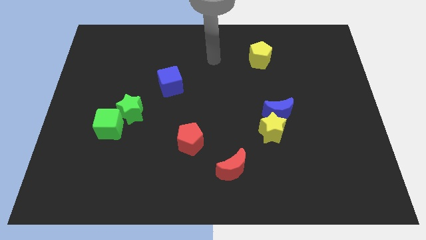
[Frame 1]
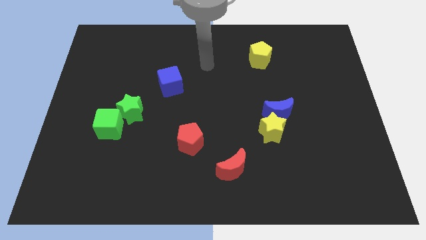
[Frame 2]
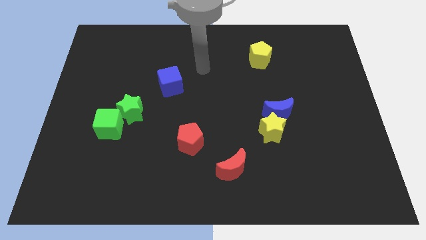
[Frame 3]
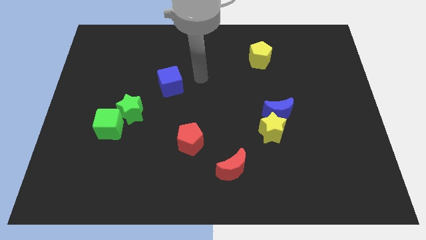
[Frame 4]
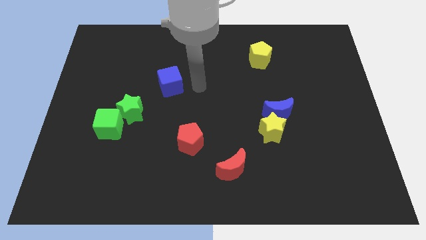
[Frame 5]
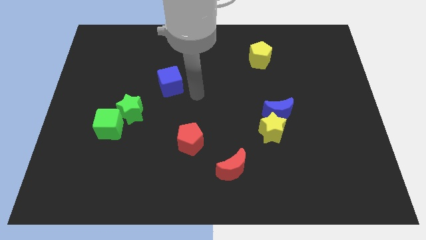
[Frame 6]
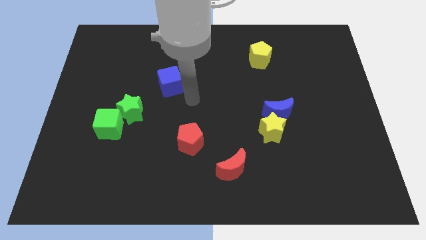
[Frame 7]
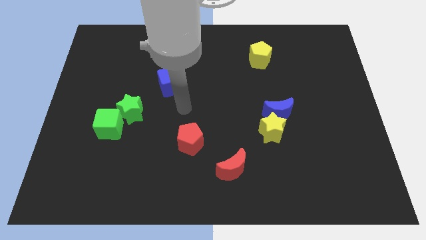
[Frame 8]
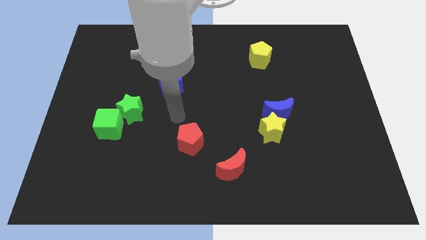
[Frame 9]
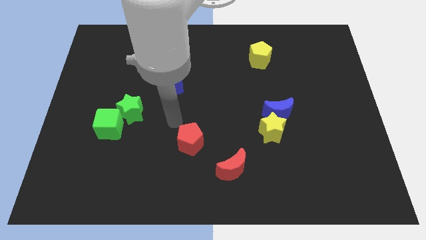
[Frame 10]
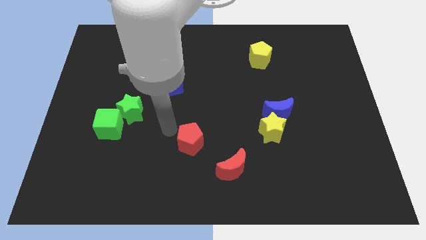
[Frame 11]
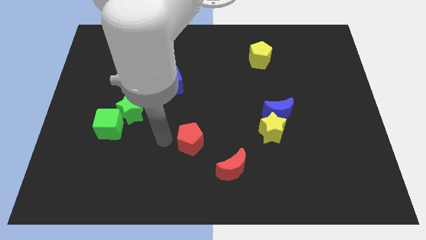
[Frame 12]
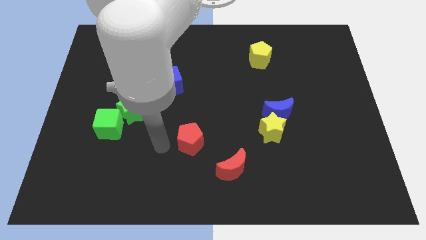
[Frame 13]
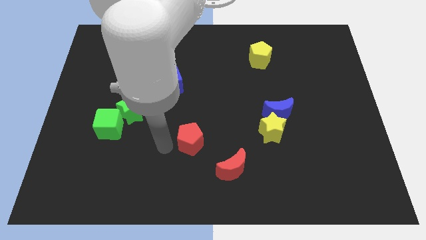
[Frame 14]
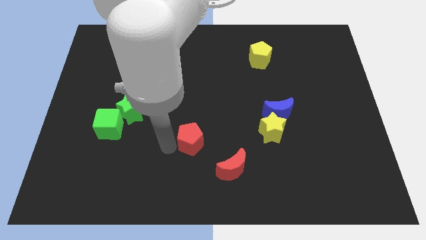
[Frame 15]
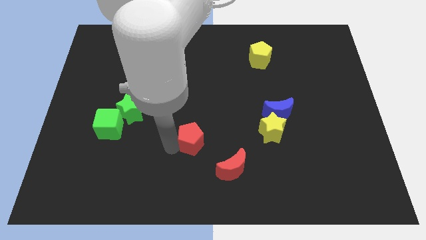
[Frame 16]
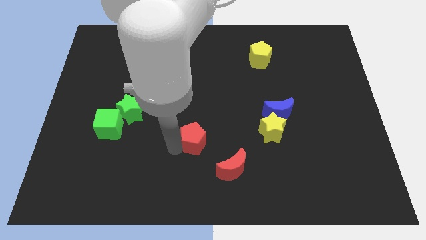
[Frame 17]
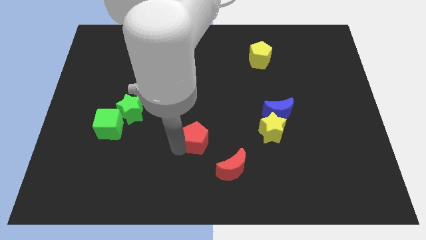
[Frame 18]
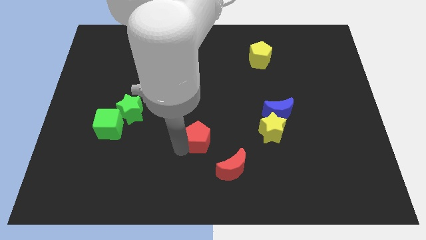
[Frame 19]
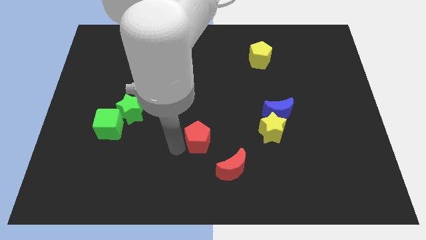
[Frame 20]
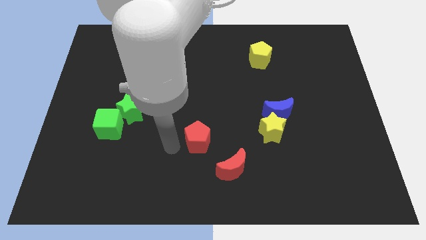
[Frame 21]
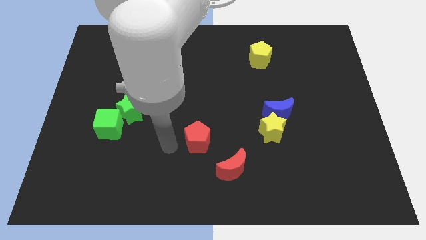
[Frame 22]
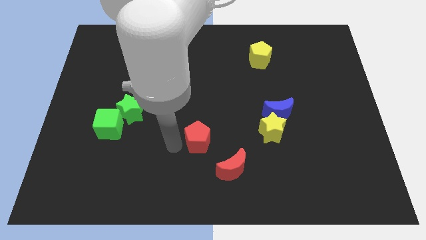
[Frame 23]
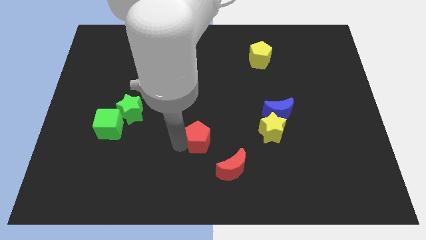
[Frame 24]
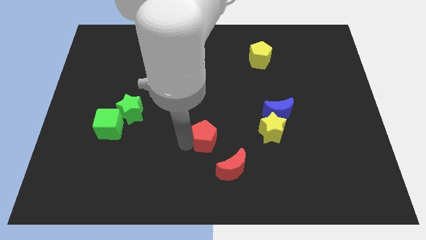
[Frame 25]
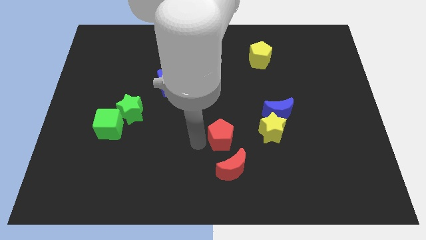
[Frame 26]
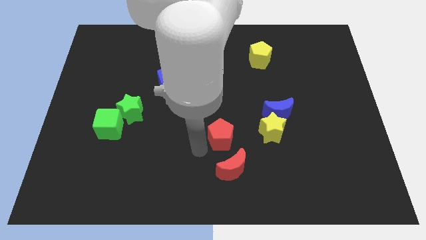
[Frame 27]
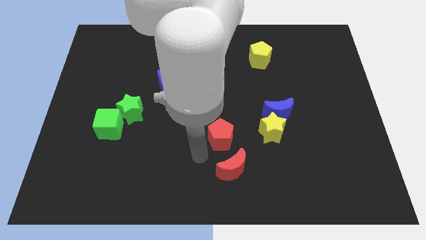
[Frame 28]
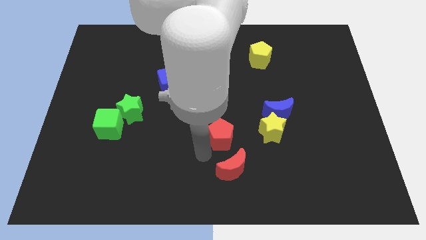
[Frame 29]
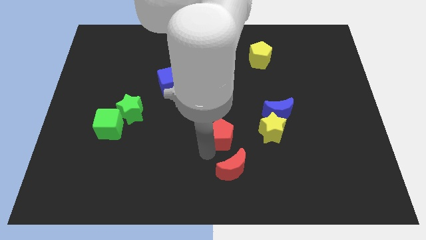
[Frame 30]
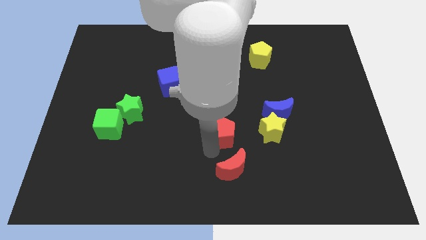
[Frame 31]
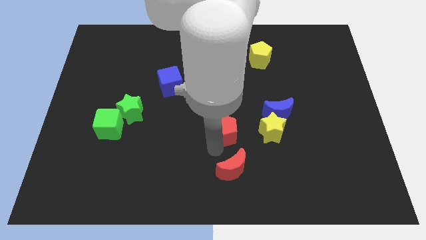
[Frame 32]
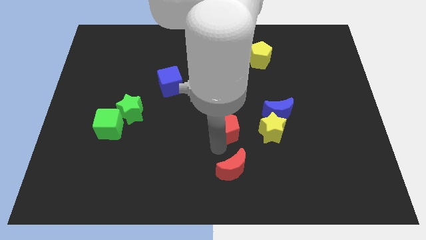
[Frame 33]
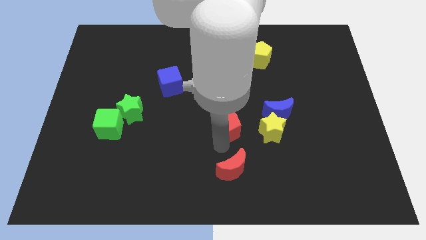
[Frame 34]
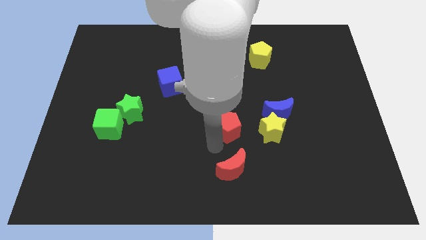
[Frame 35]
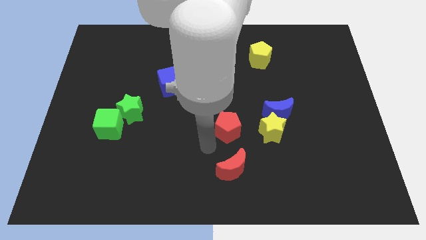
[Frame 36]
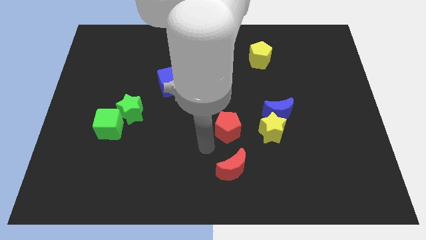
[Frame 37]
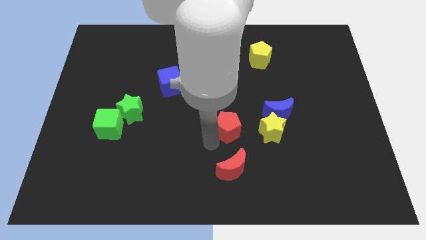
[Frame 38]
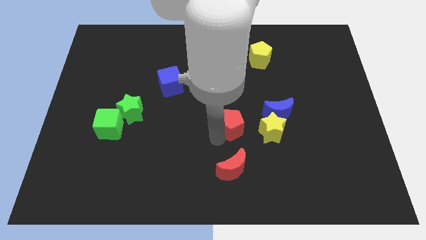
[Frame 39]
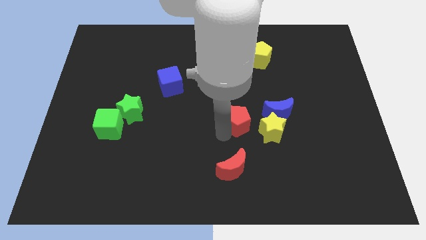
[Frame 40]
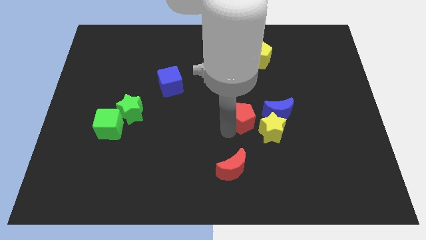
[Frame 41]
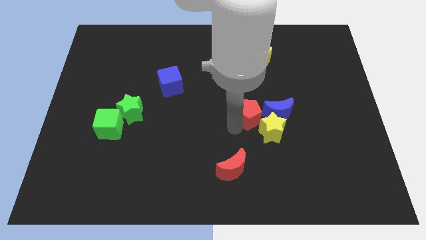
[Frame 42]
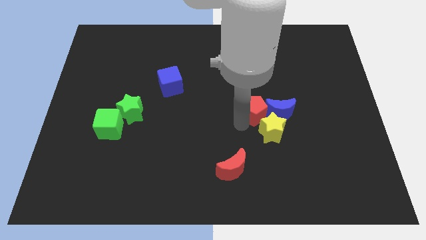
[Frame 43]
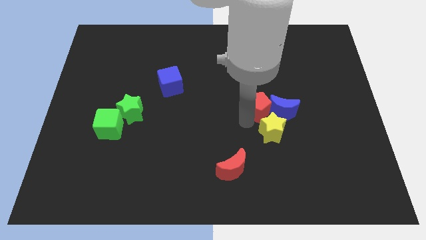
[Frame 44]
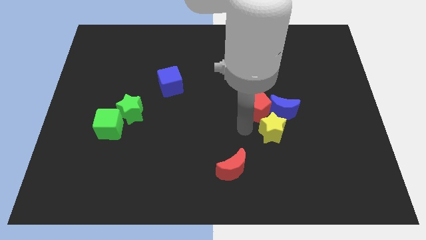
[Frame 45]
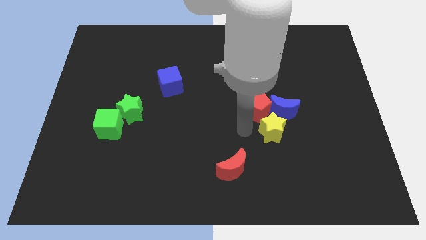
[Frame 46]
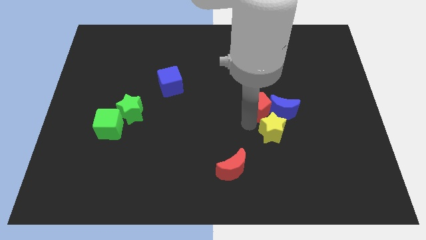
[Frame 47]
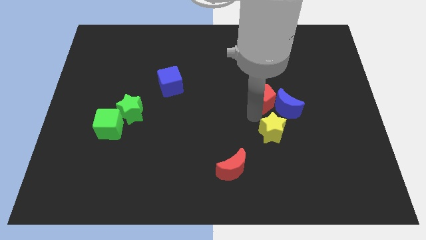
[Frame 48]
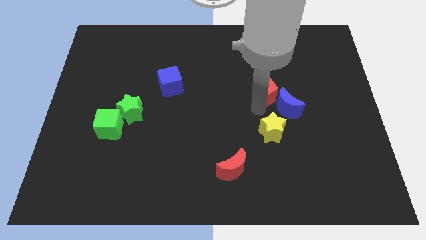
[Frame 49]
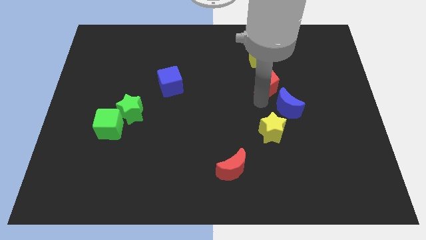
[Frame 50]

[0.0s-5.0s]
push the red pentagon above the blue moon

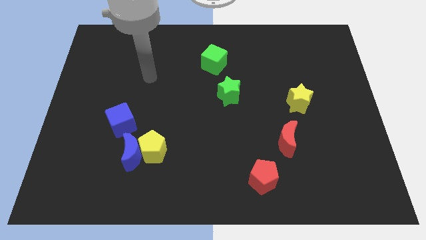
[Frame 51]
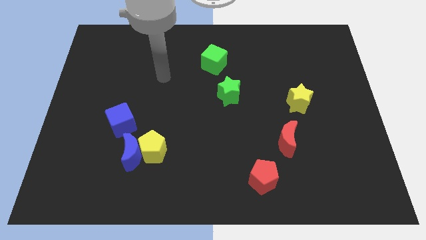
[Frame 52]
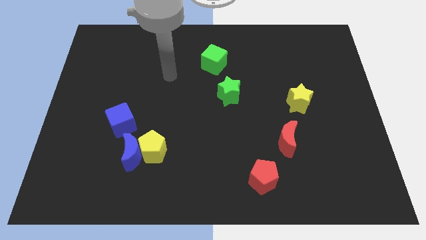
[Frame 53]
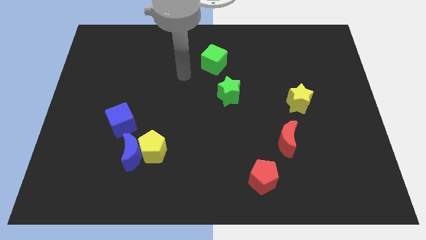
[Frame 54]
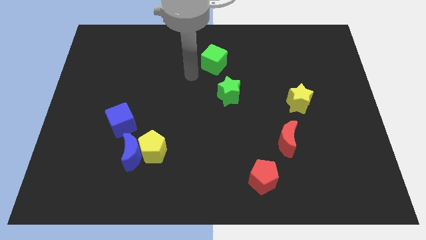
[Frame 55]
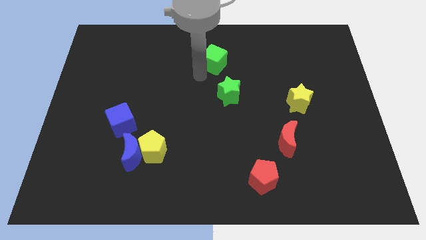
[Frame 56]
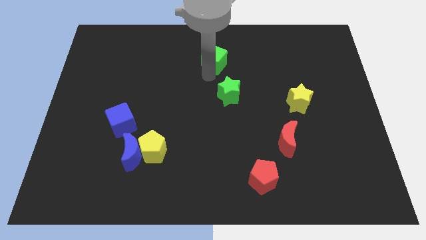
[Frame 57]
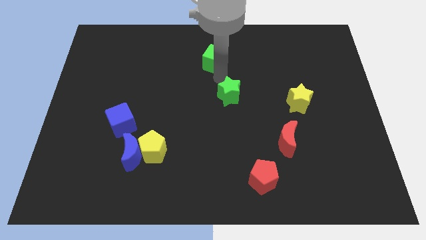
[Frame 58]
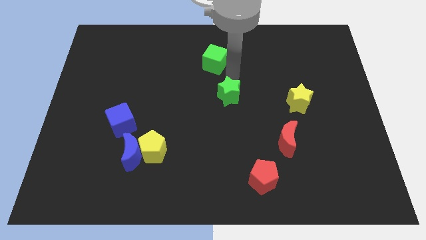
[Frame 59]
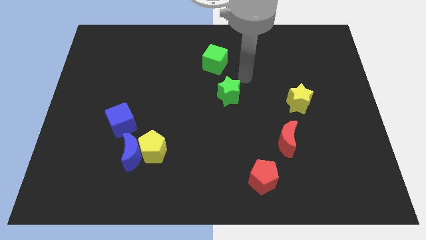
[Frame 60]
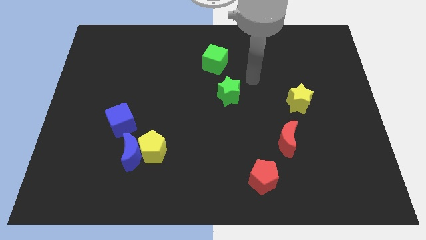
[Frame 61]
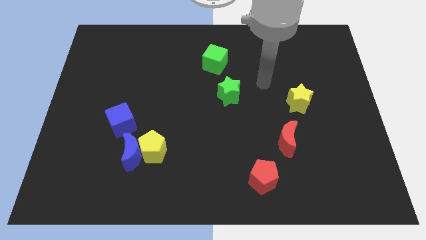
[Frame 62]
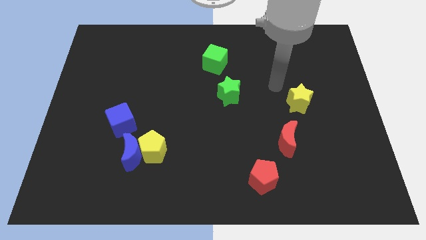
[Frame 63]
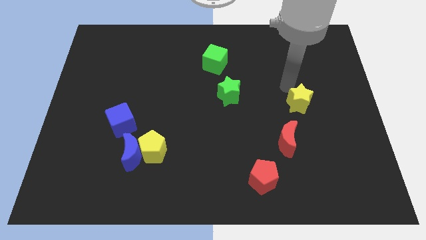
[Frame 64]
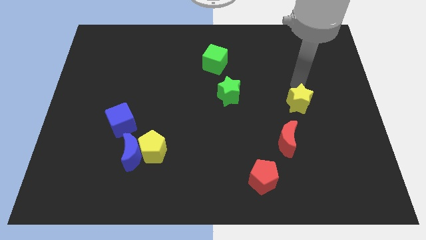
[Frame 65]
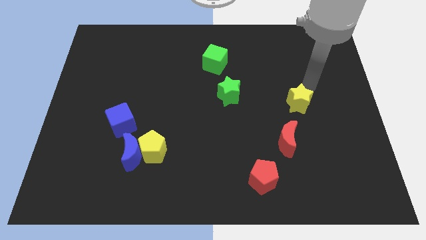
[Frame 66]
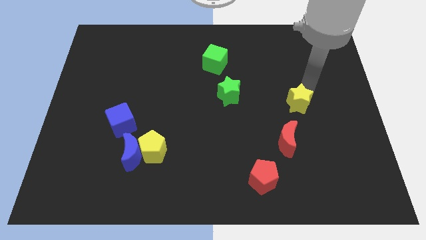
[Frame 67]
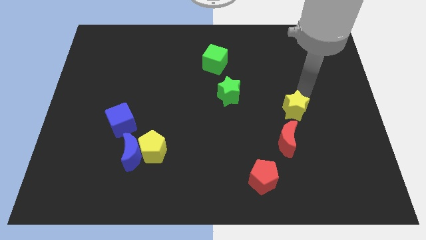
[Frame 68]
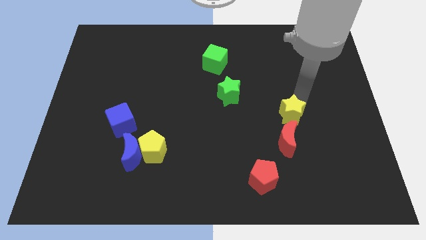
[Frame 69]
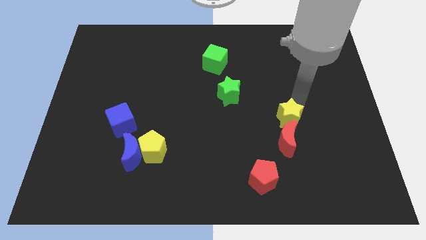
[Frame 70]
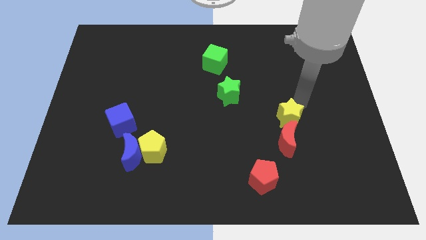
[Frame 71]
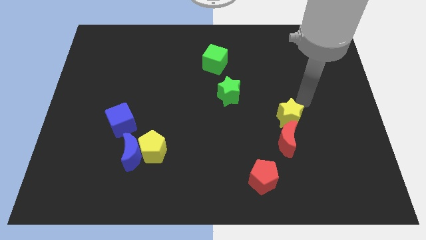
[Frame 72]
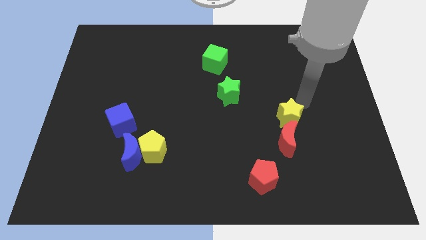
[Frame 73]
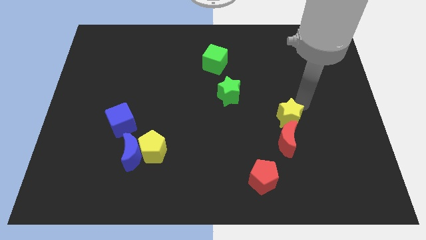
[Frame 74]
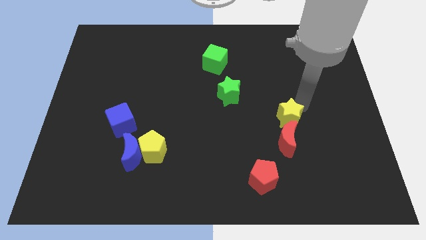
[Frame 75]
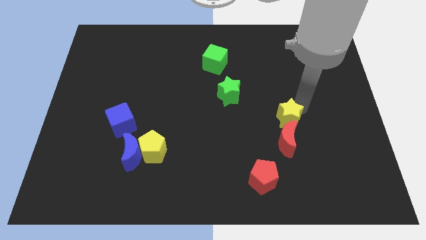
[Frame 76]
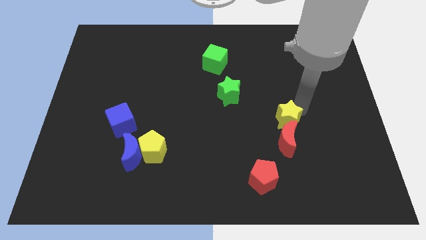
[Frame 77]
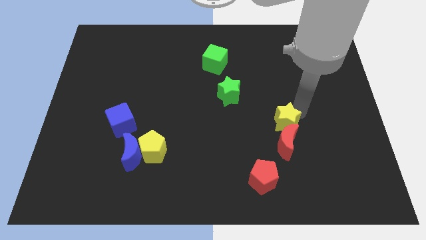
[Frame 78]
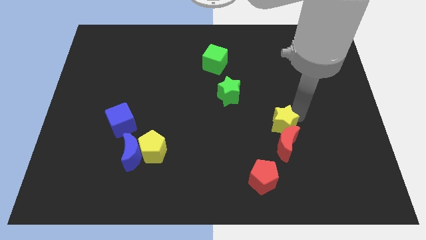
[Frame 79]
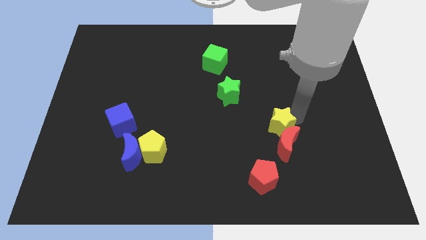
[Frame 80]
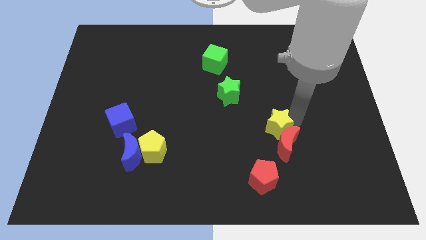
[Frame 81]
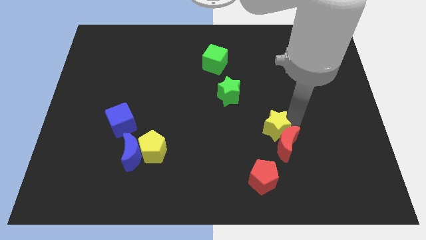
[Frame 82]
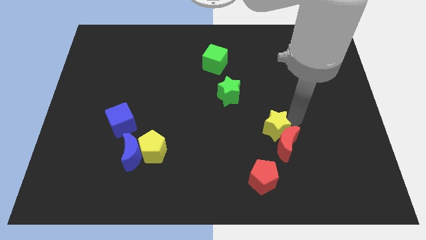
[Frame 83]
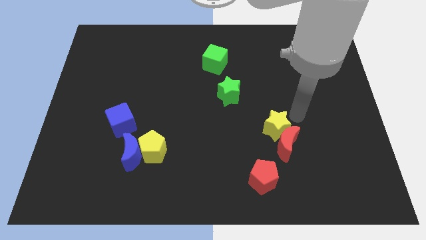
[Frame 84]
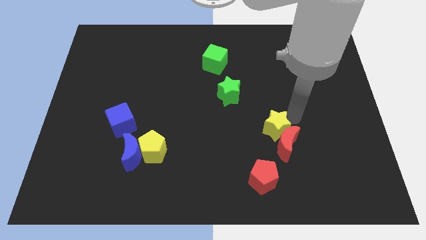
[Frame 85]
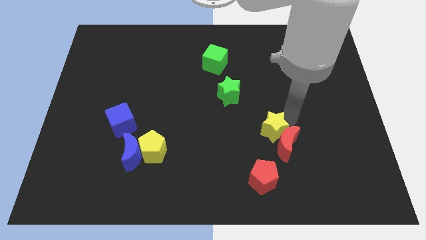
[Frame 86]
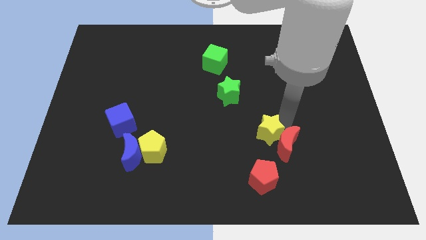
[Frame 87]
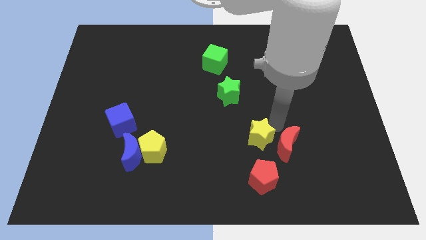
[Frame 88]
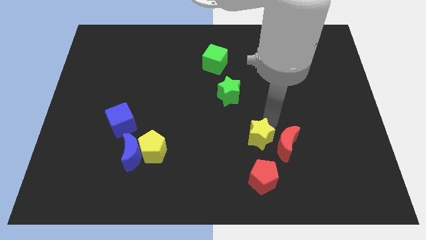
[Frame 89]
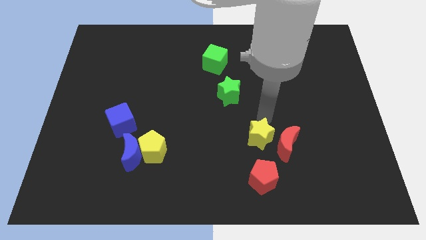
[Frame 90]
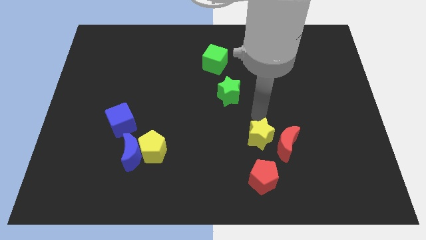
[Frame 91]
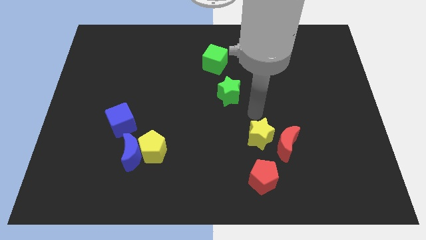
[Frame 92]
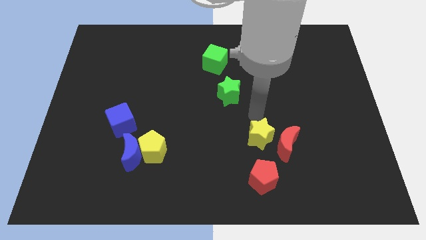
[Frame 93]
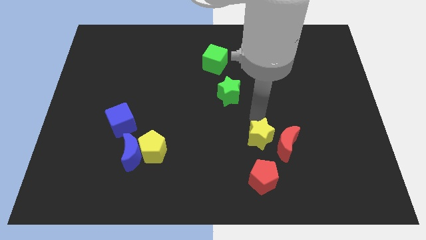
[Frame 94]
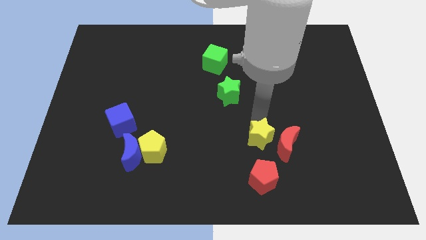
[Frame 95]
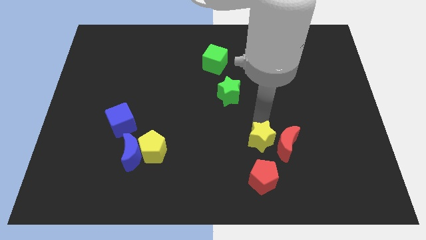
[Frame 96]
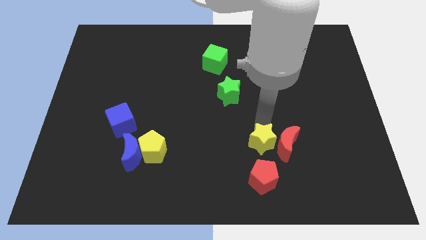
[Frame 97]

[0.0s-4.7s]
move the yellow star to the bottom left of the red moon
